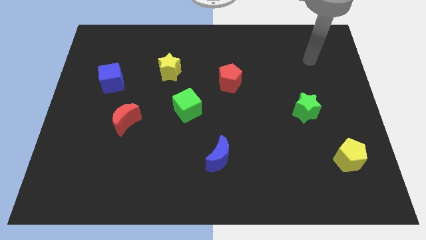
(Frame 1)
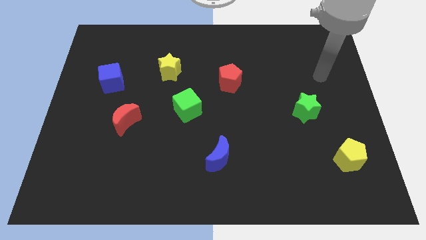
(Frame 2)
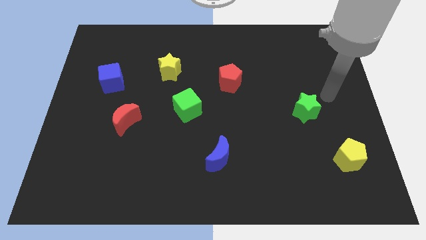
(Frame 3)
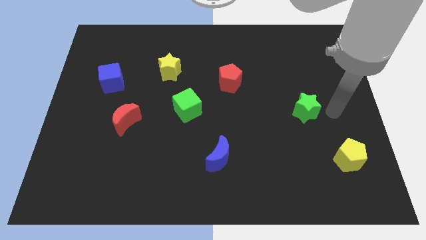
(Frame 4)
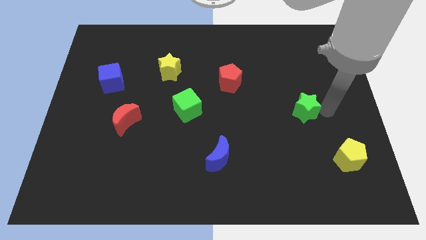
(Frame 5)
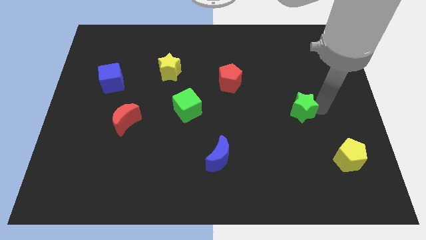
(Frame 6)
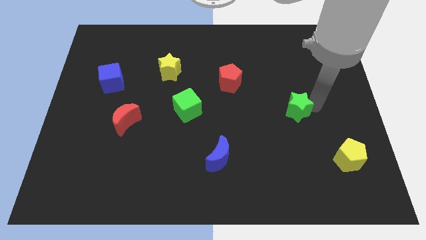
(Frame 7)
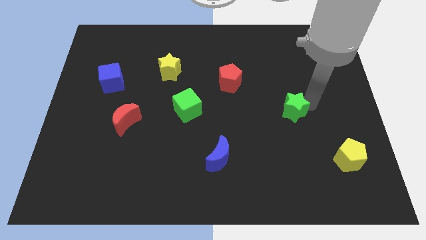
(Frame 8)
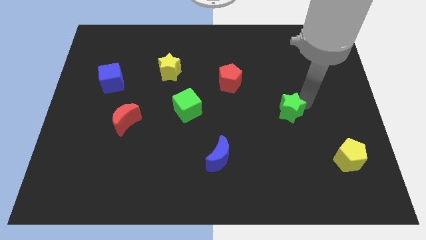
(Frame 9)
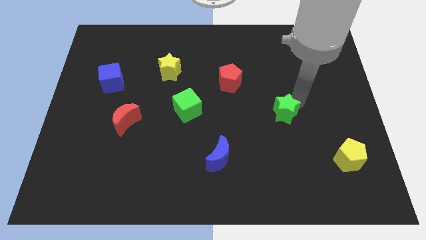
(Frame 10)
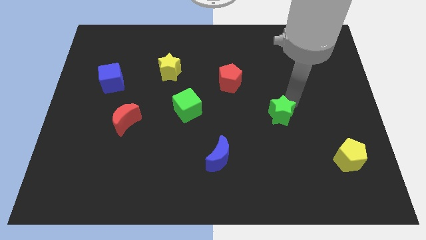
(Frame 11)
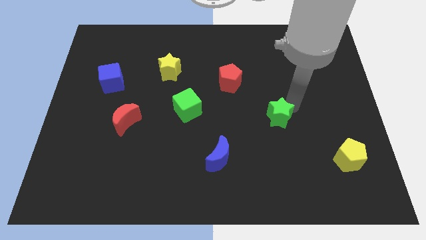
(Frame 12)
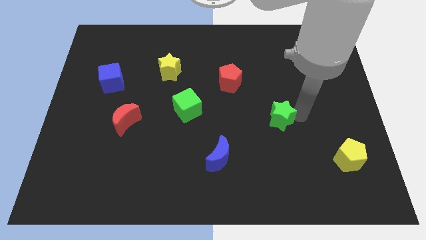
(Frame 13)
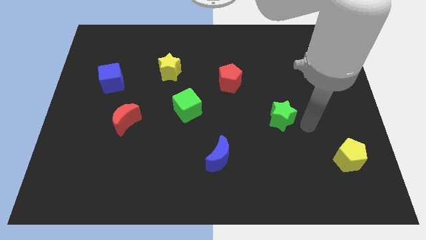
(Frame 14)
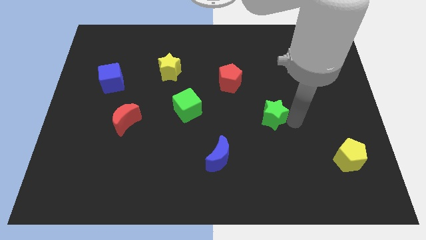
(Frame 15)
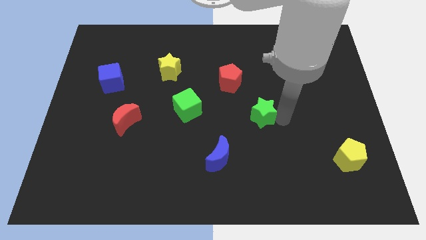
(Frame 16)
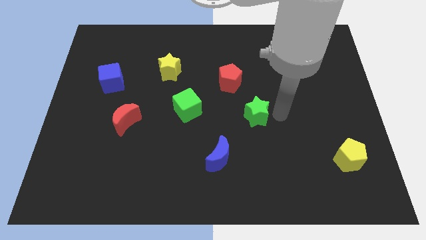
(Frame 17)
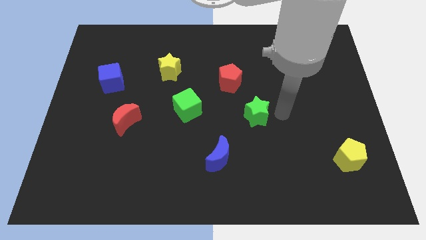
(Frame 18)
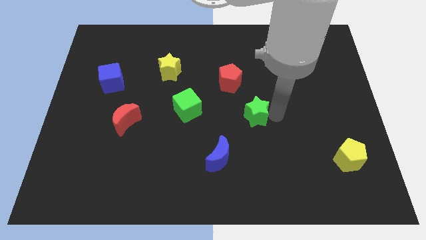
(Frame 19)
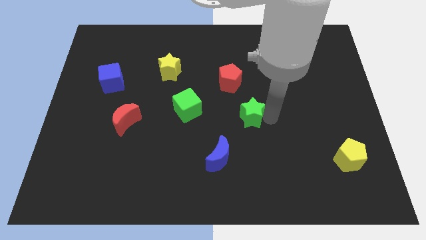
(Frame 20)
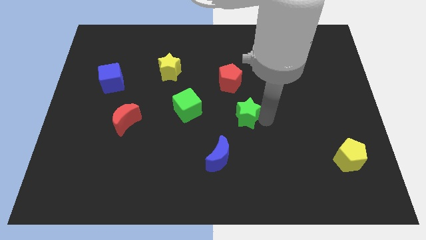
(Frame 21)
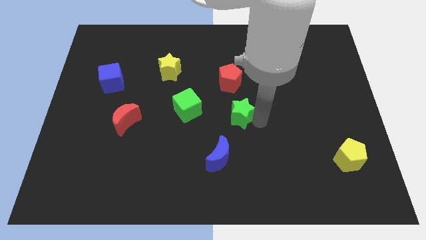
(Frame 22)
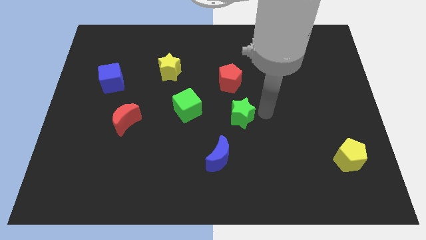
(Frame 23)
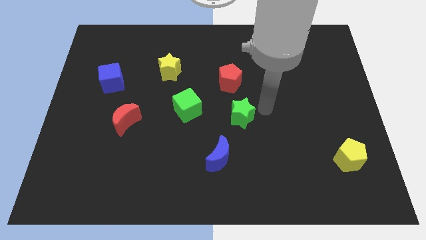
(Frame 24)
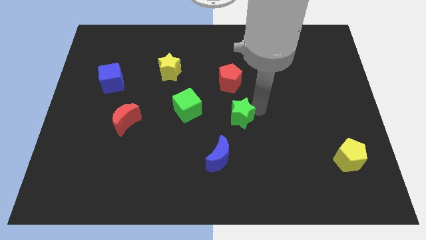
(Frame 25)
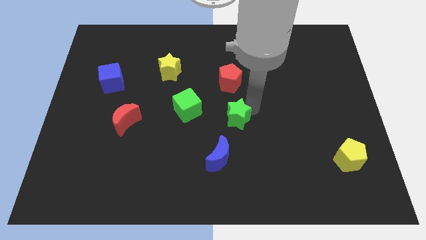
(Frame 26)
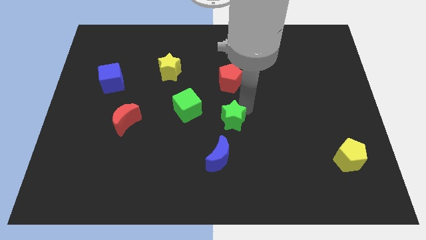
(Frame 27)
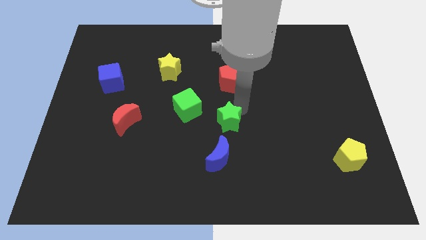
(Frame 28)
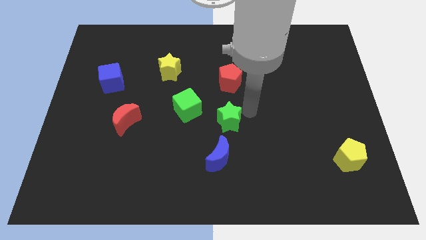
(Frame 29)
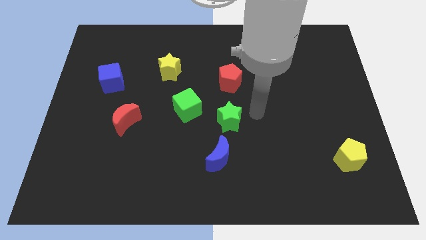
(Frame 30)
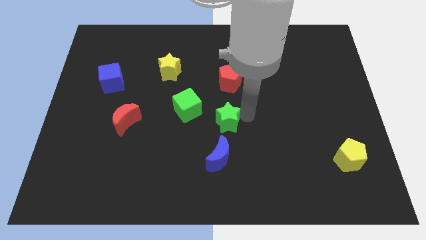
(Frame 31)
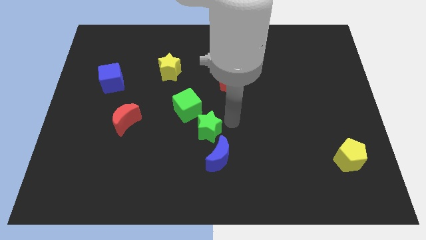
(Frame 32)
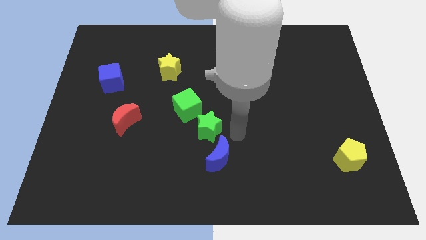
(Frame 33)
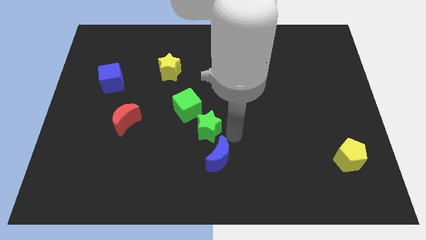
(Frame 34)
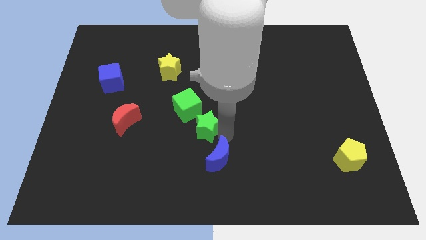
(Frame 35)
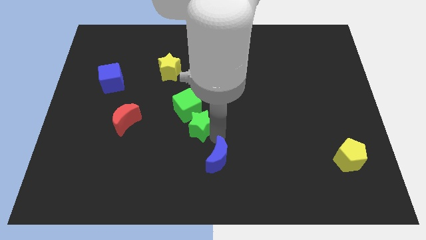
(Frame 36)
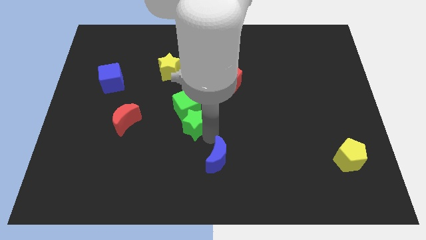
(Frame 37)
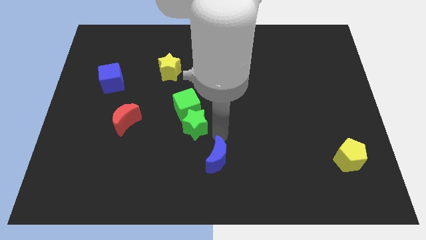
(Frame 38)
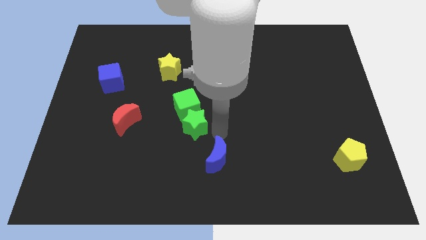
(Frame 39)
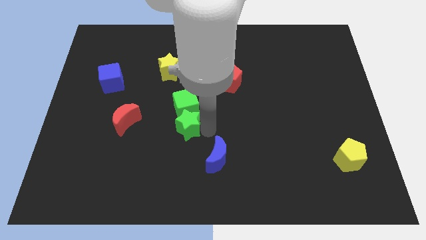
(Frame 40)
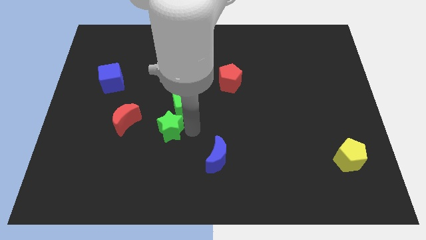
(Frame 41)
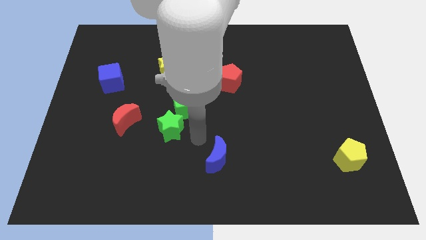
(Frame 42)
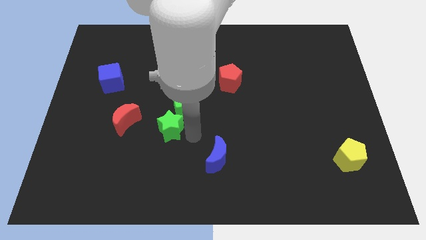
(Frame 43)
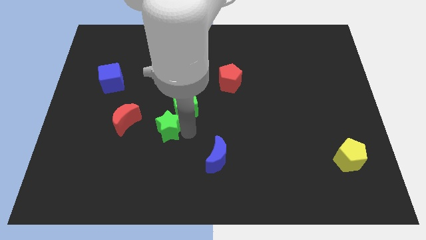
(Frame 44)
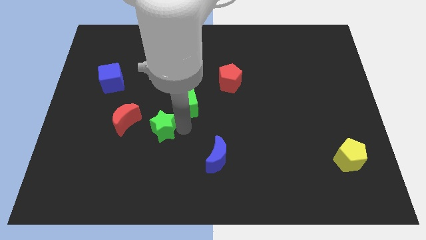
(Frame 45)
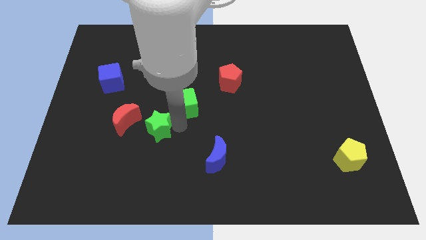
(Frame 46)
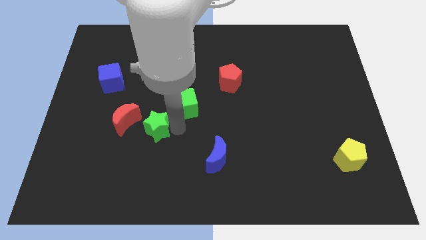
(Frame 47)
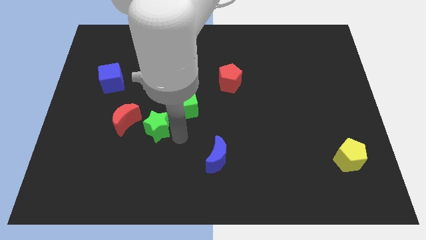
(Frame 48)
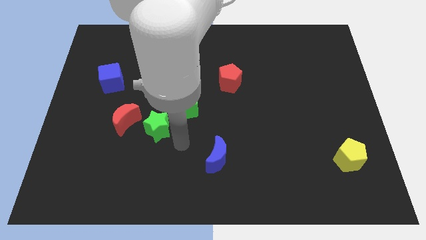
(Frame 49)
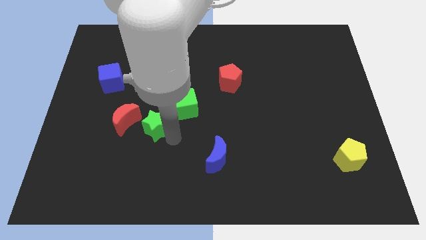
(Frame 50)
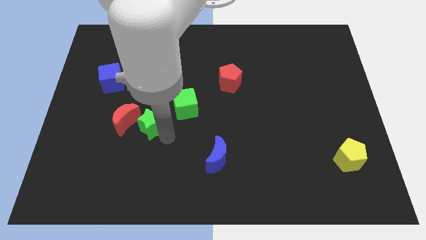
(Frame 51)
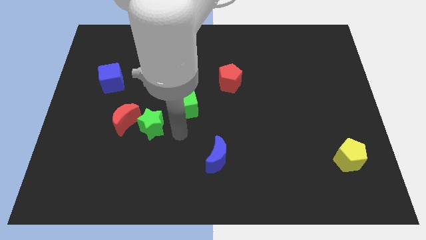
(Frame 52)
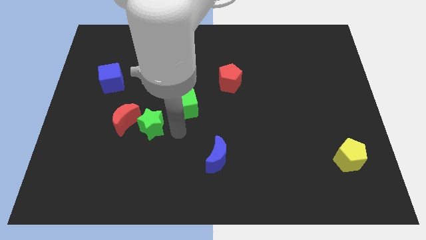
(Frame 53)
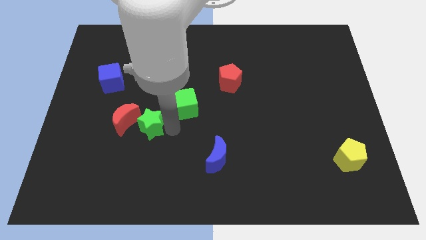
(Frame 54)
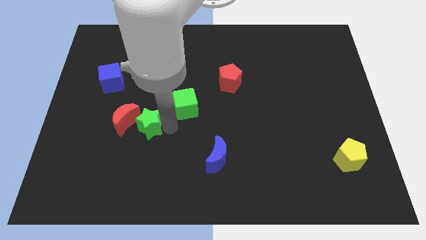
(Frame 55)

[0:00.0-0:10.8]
move the green star close to the red moon

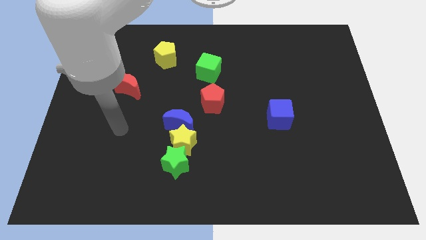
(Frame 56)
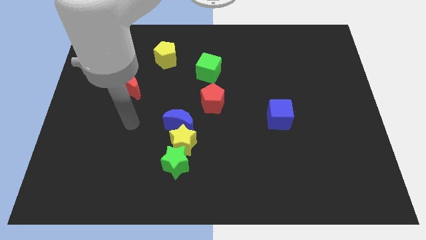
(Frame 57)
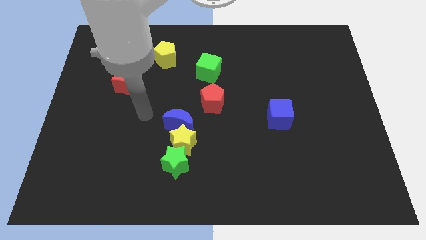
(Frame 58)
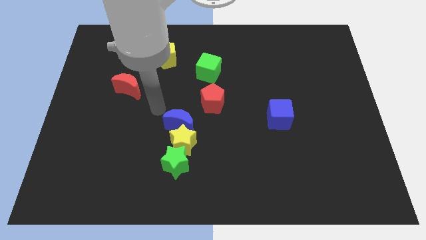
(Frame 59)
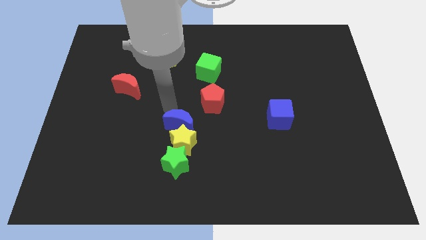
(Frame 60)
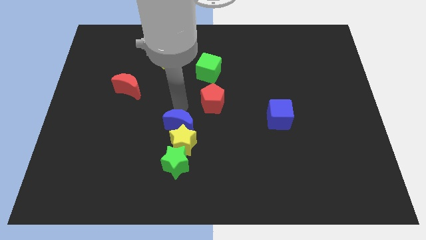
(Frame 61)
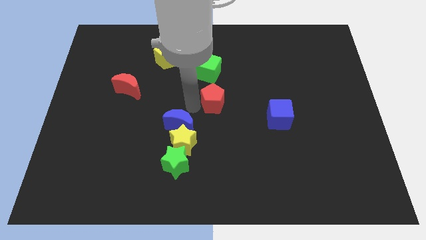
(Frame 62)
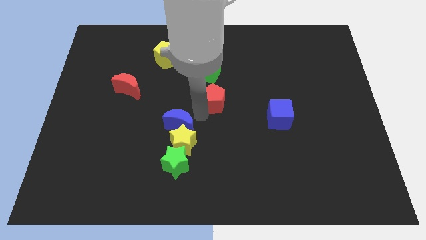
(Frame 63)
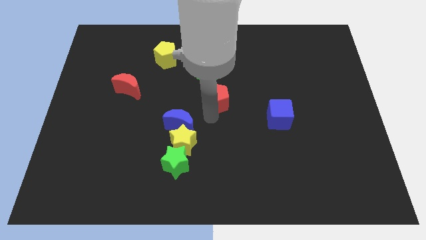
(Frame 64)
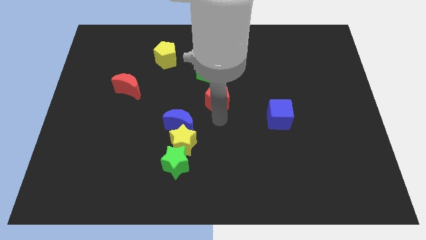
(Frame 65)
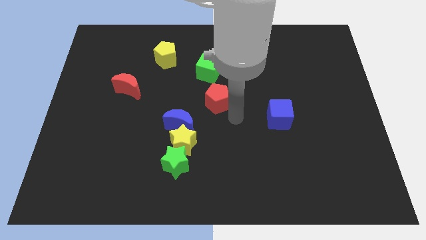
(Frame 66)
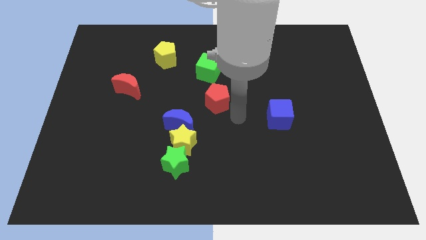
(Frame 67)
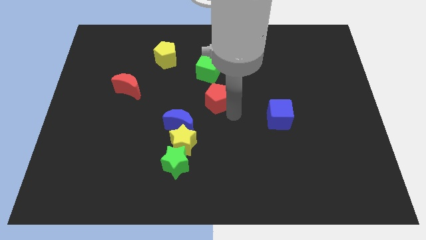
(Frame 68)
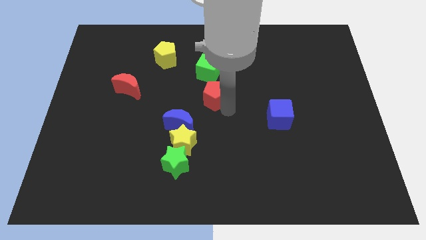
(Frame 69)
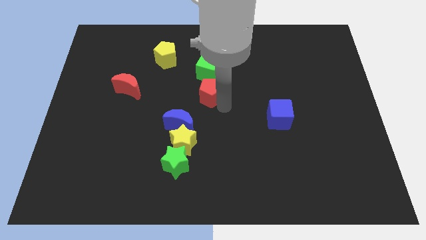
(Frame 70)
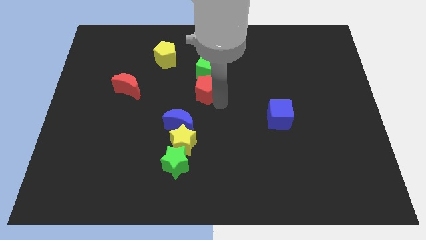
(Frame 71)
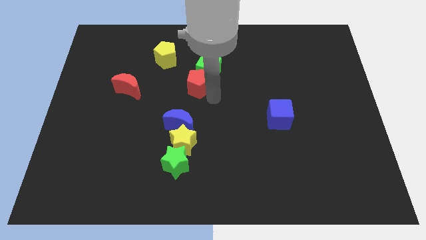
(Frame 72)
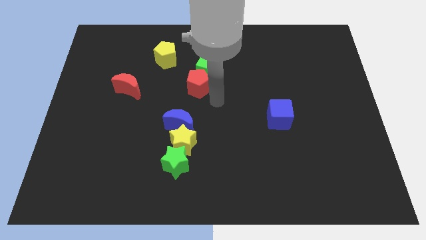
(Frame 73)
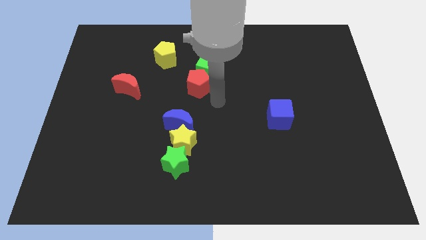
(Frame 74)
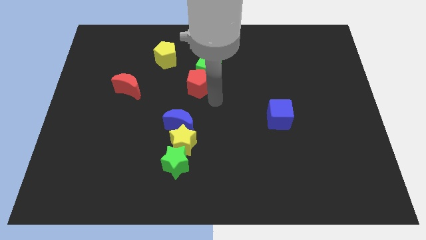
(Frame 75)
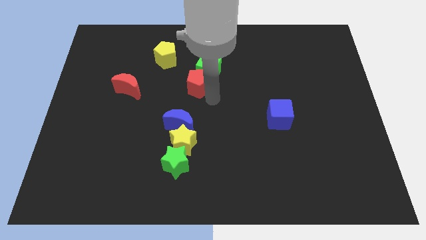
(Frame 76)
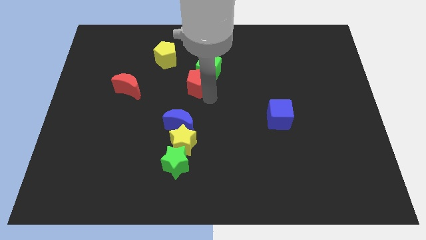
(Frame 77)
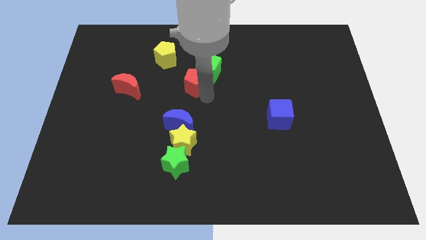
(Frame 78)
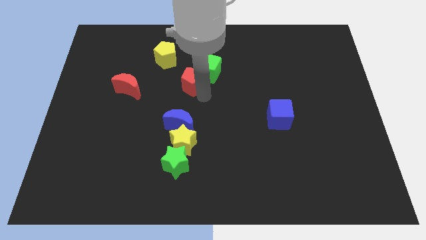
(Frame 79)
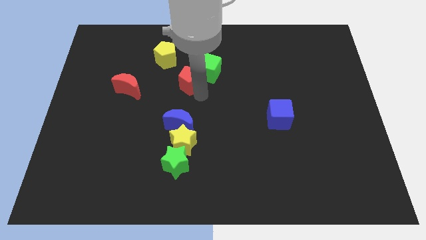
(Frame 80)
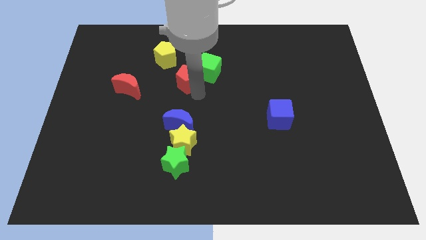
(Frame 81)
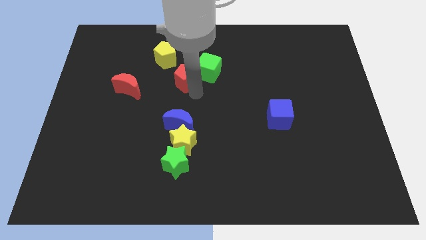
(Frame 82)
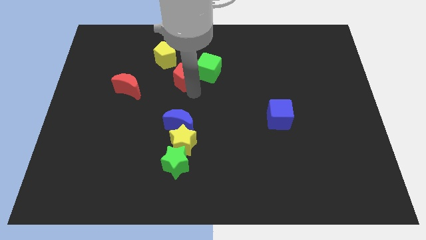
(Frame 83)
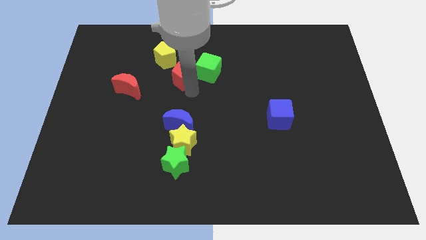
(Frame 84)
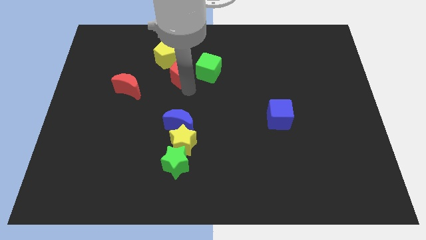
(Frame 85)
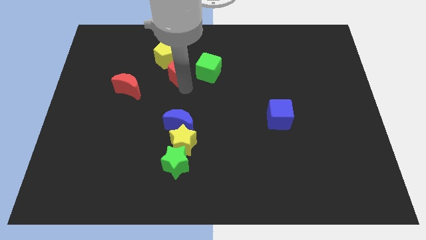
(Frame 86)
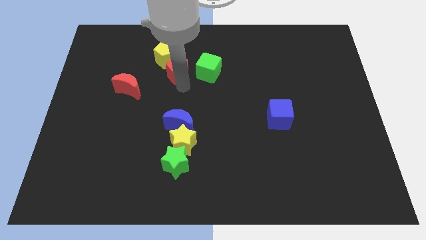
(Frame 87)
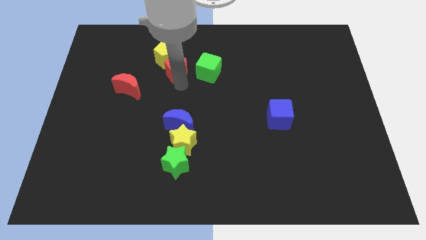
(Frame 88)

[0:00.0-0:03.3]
move the red pentagon next to the yellow pentagon
